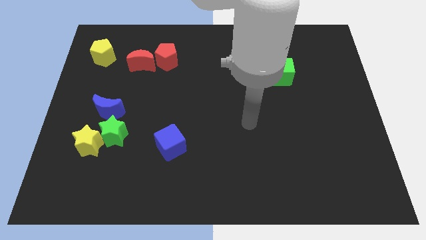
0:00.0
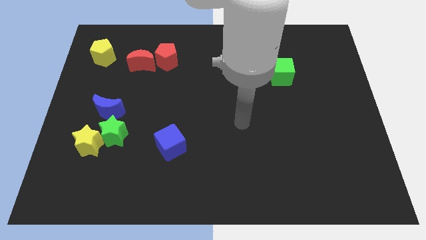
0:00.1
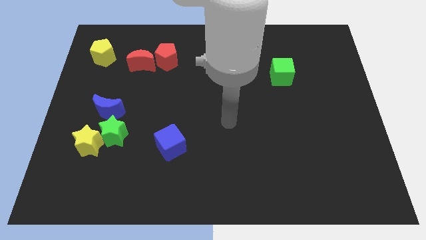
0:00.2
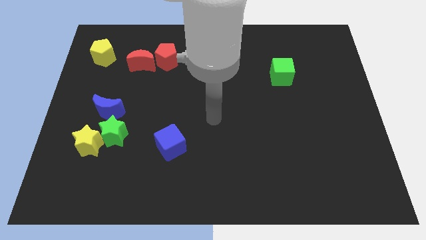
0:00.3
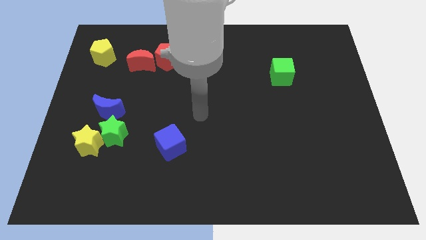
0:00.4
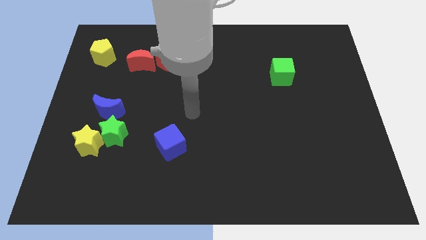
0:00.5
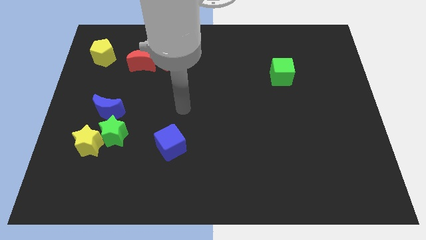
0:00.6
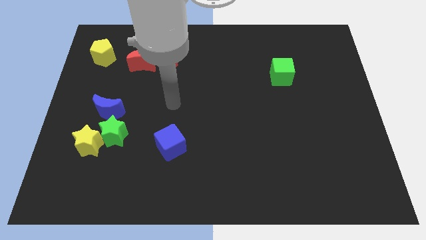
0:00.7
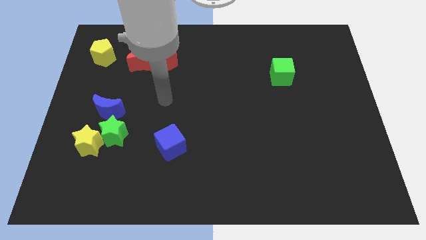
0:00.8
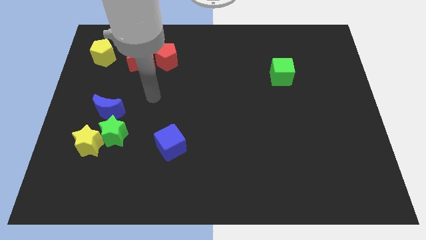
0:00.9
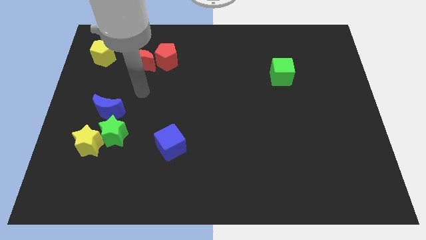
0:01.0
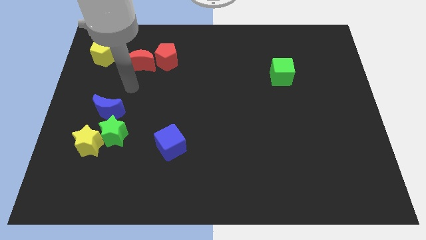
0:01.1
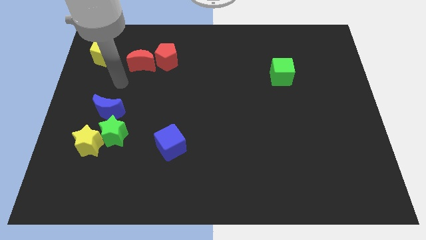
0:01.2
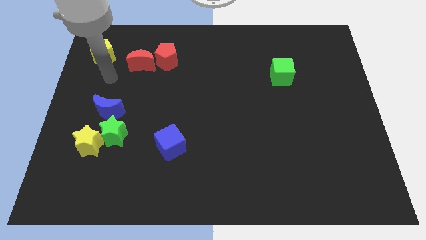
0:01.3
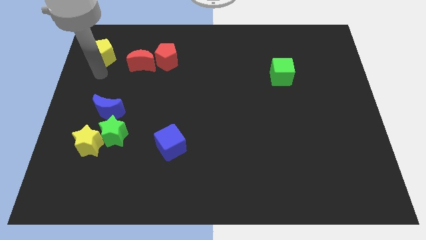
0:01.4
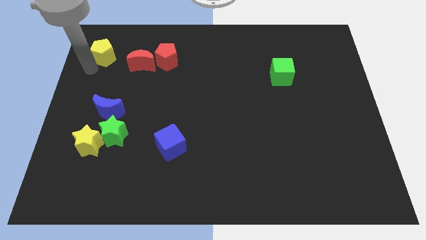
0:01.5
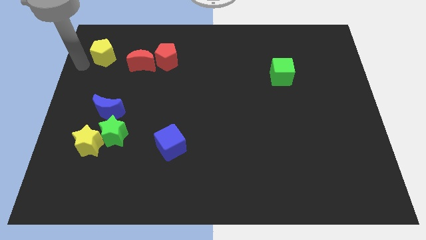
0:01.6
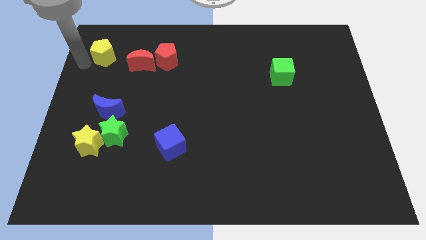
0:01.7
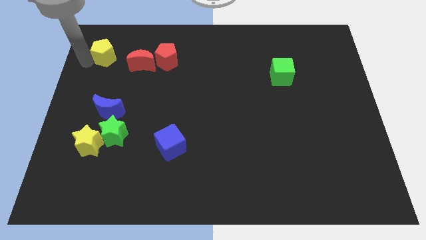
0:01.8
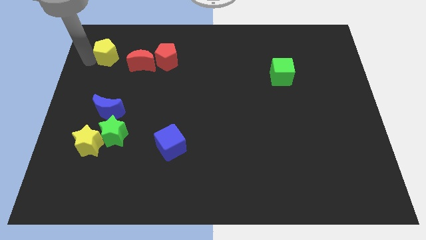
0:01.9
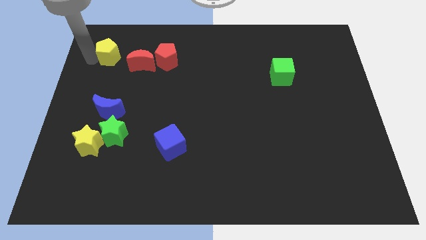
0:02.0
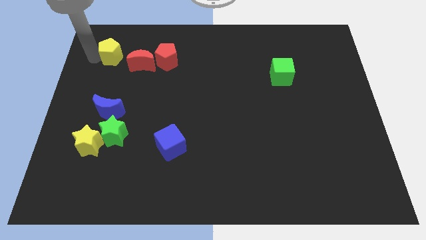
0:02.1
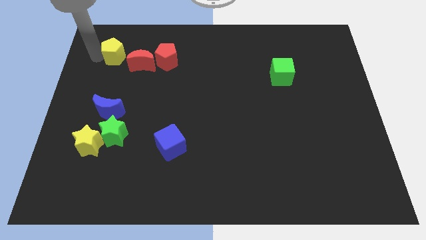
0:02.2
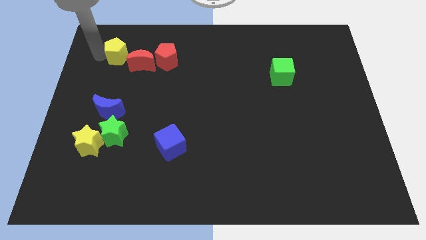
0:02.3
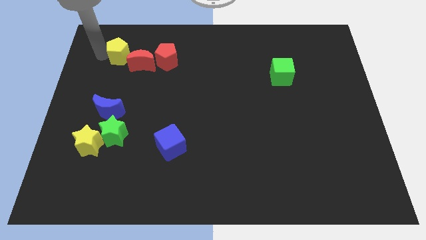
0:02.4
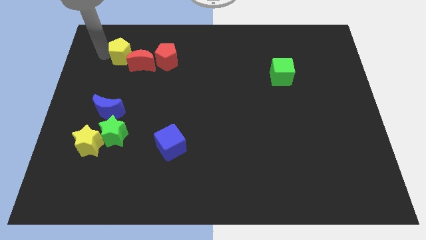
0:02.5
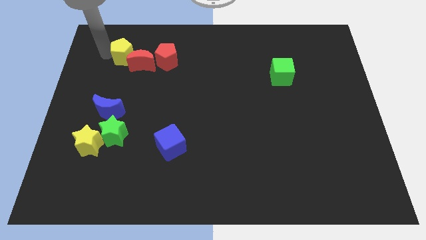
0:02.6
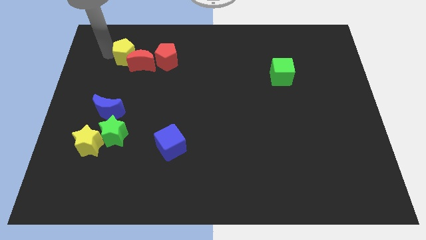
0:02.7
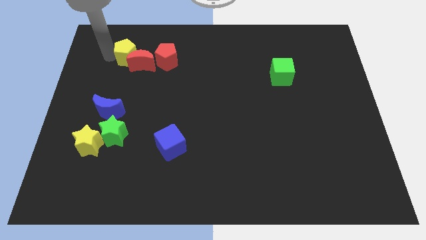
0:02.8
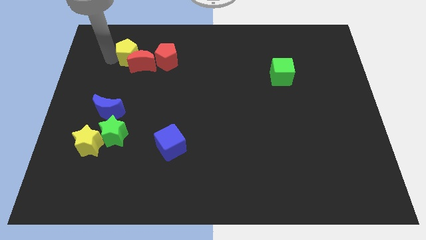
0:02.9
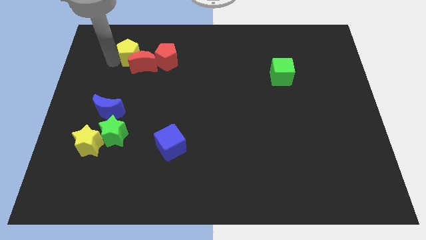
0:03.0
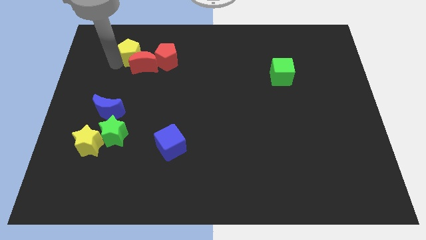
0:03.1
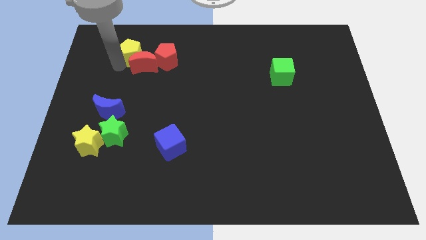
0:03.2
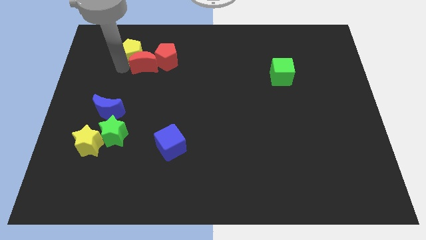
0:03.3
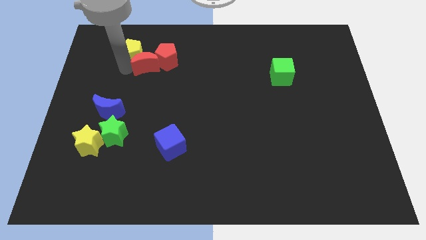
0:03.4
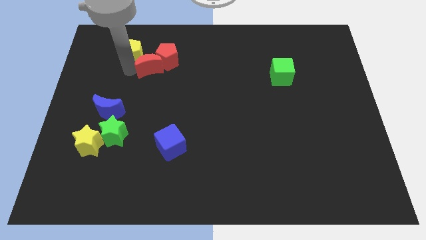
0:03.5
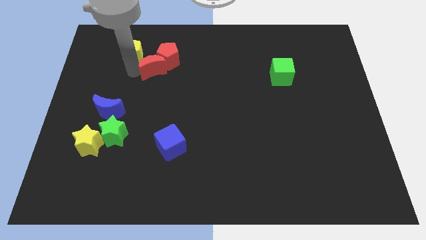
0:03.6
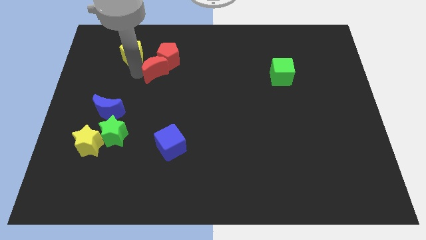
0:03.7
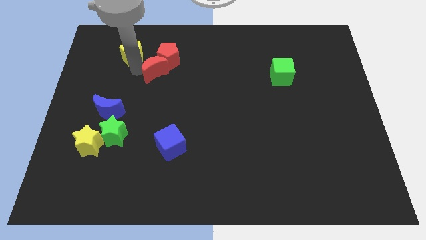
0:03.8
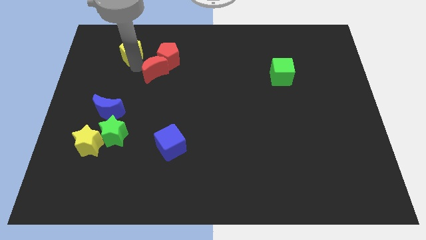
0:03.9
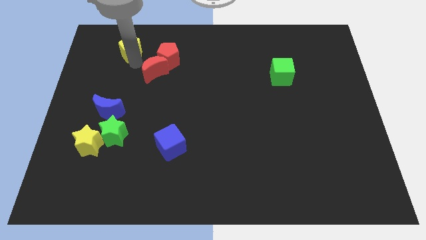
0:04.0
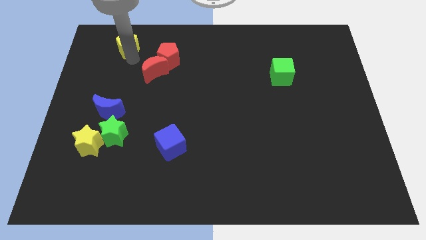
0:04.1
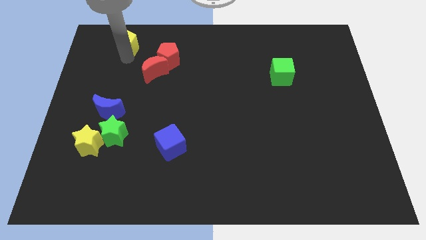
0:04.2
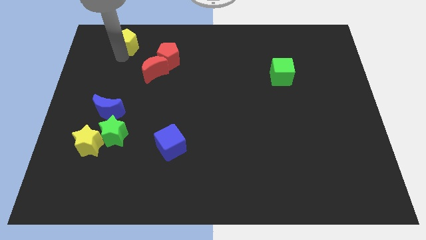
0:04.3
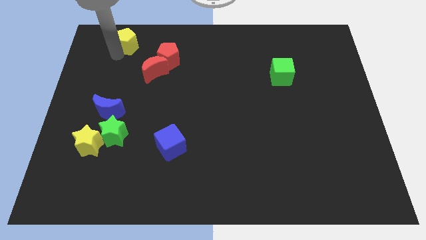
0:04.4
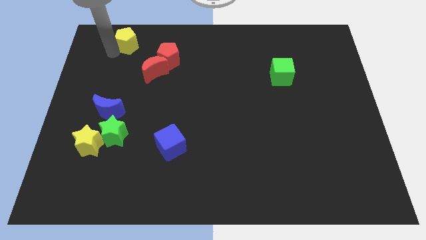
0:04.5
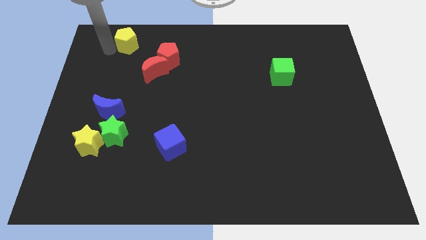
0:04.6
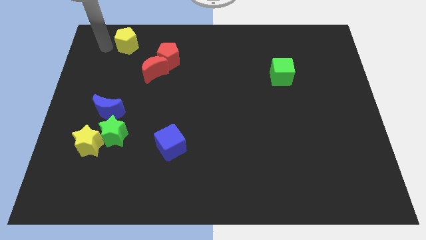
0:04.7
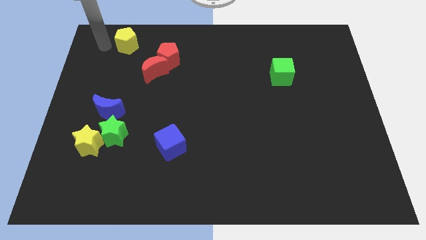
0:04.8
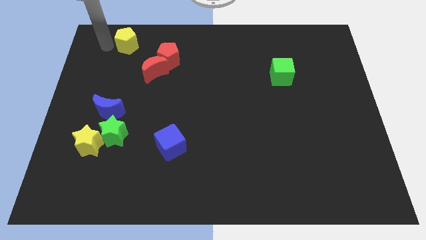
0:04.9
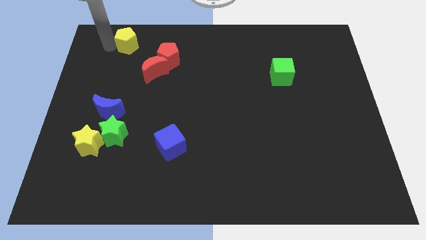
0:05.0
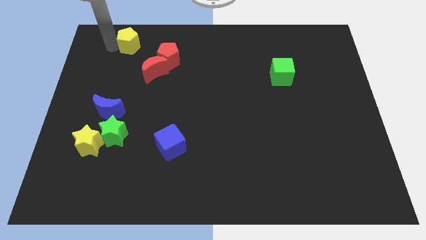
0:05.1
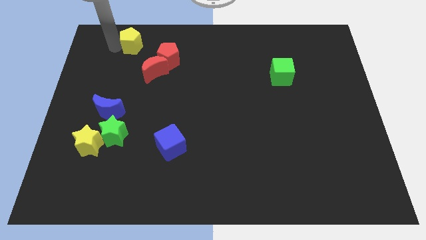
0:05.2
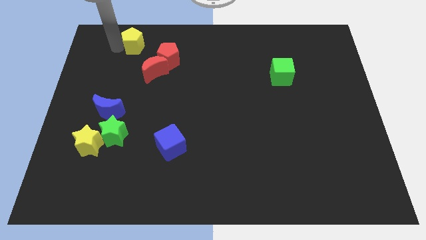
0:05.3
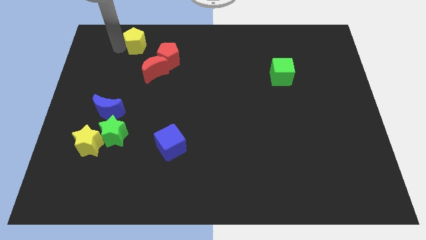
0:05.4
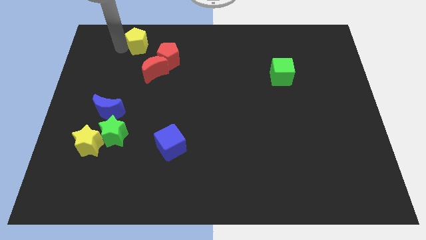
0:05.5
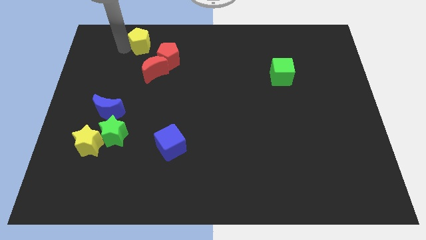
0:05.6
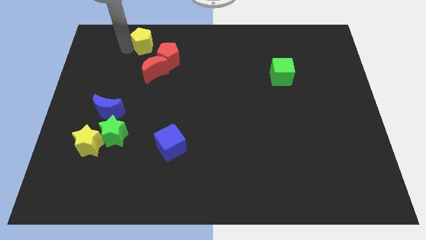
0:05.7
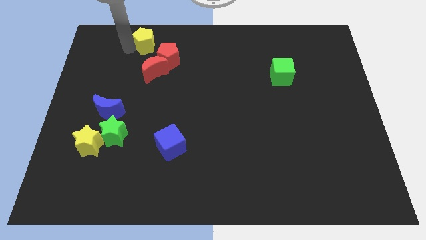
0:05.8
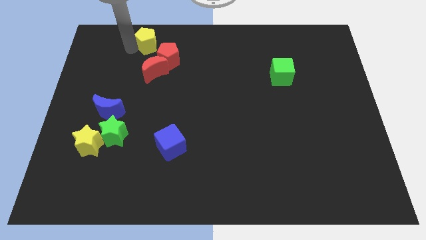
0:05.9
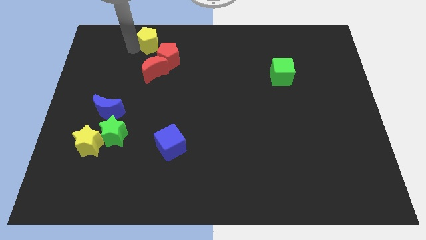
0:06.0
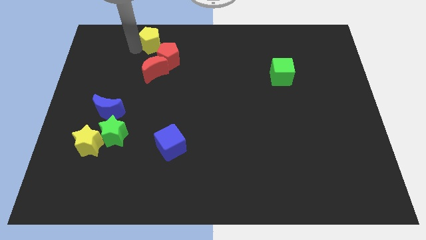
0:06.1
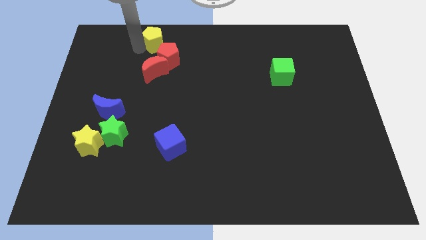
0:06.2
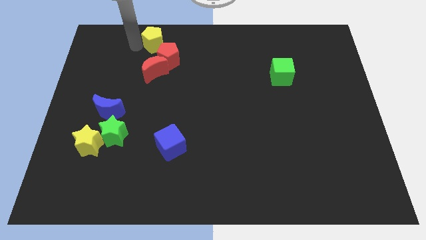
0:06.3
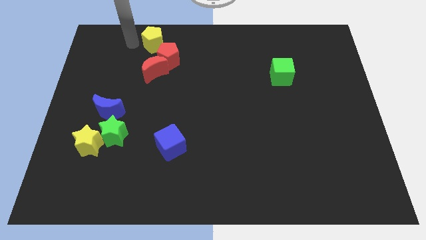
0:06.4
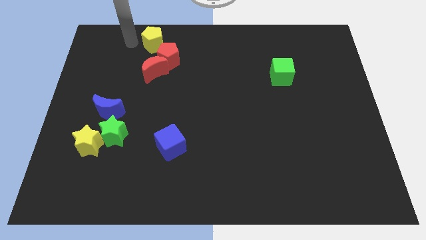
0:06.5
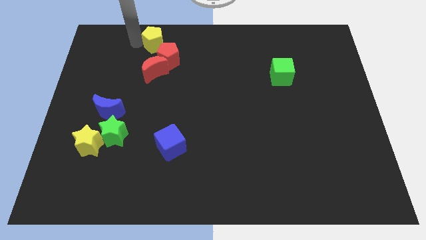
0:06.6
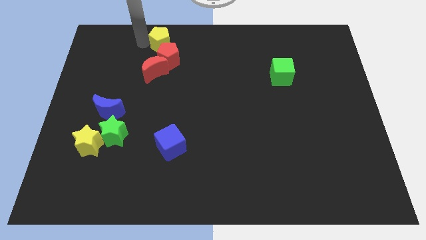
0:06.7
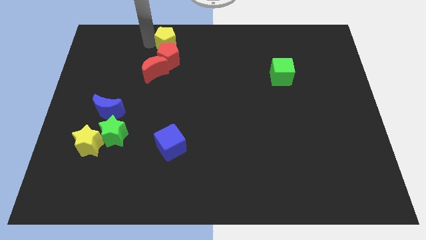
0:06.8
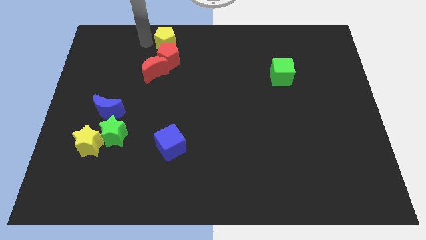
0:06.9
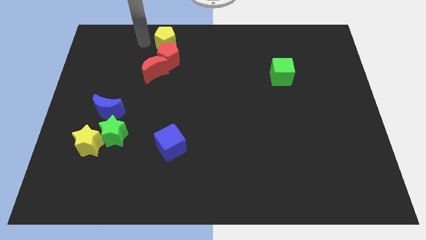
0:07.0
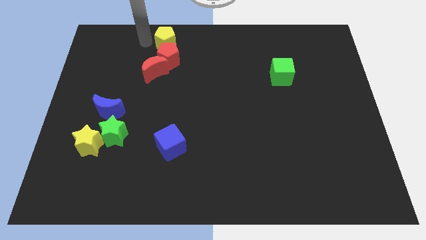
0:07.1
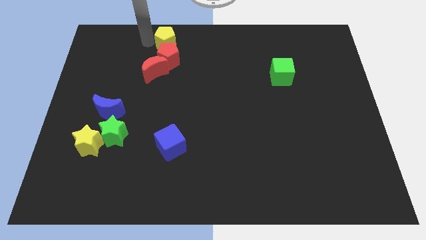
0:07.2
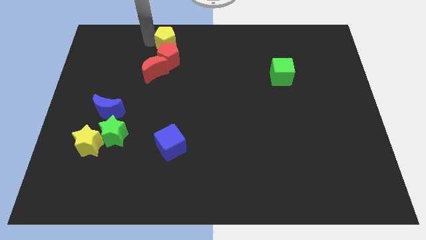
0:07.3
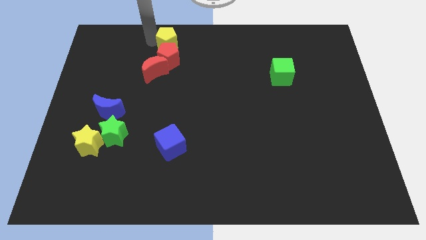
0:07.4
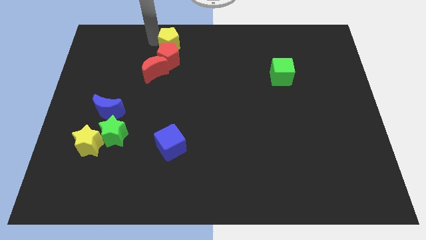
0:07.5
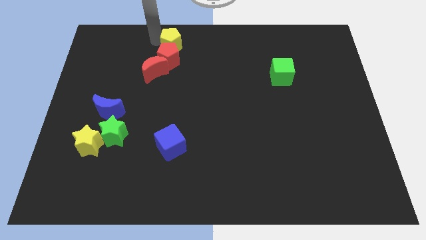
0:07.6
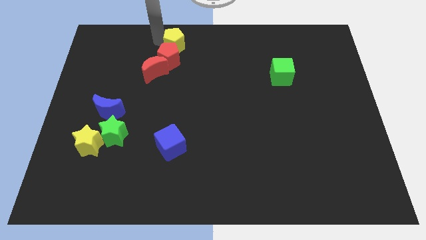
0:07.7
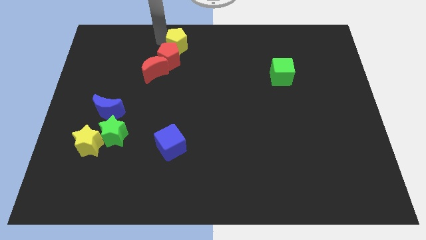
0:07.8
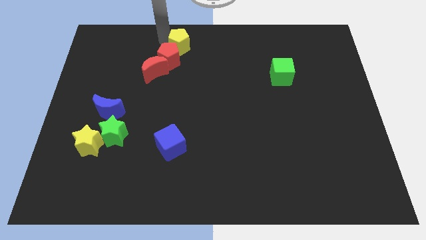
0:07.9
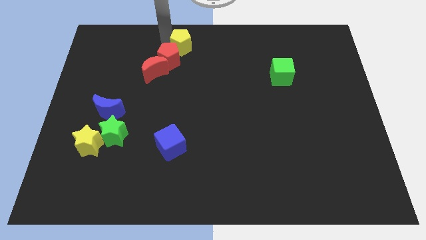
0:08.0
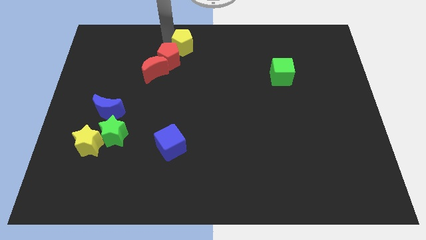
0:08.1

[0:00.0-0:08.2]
slide the yellow pentagon right
